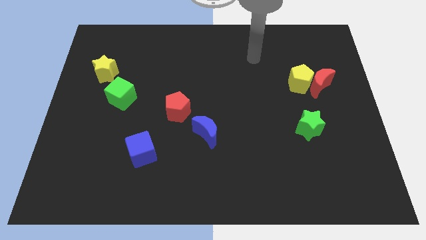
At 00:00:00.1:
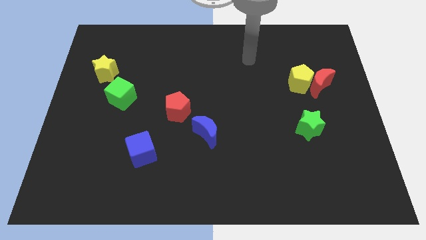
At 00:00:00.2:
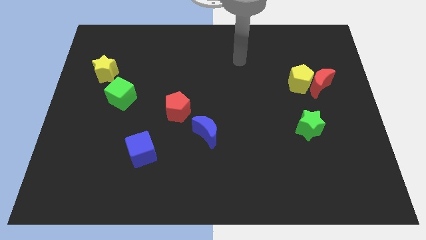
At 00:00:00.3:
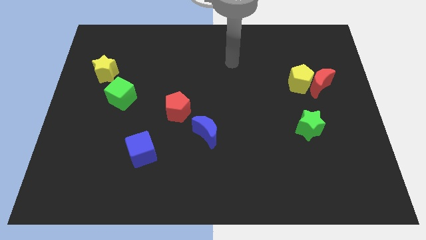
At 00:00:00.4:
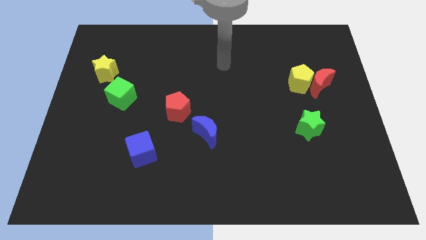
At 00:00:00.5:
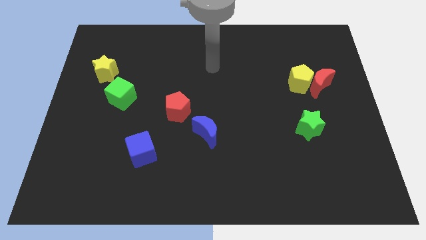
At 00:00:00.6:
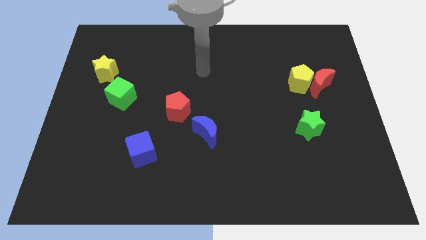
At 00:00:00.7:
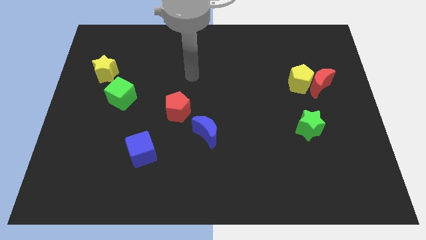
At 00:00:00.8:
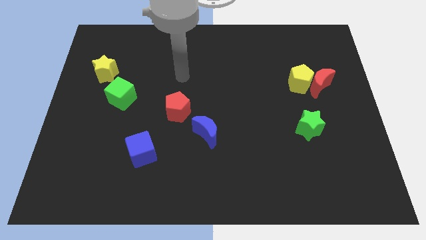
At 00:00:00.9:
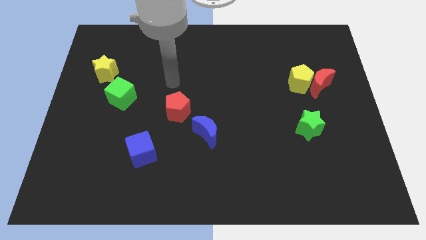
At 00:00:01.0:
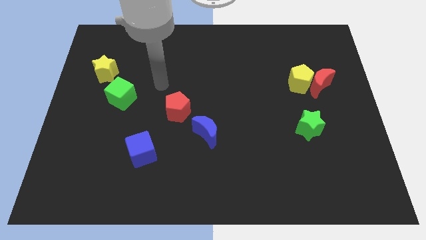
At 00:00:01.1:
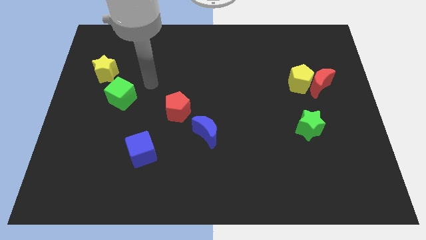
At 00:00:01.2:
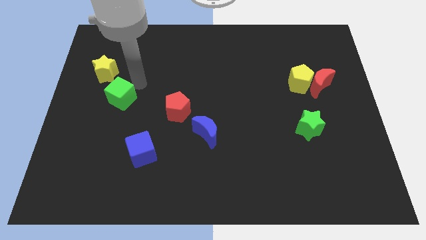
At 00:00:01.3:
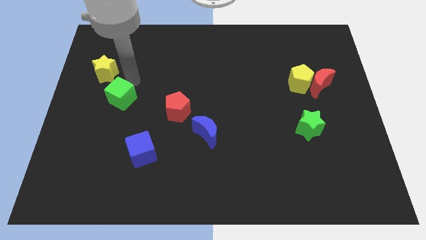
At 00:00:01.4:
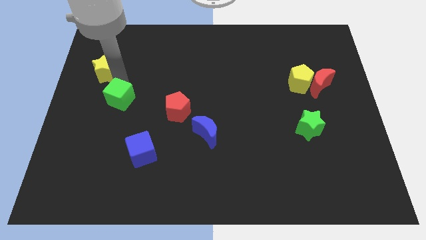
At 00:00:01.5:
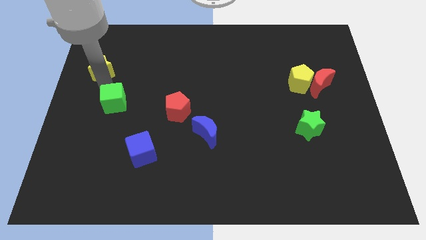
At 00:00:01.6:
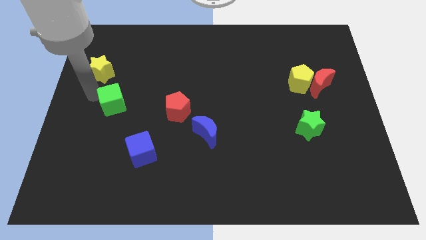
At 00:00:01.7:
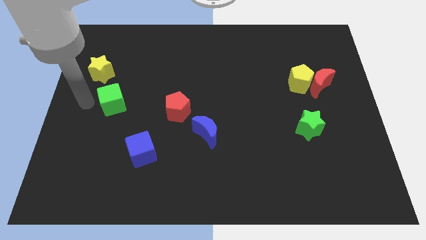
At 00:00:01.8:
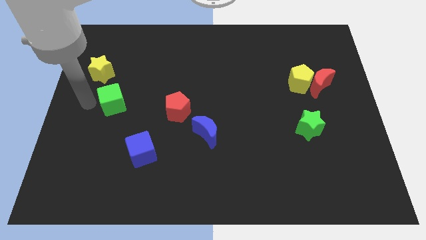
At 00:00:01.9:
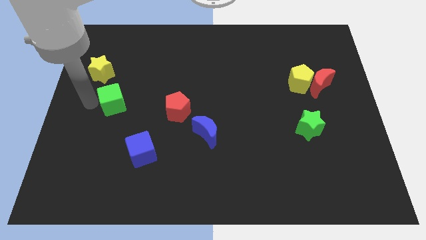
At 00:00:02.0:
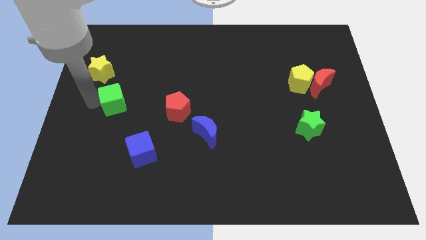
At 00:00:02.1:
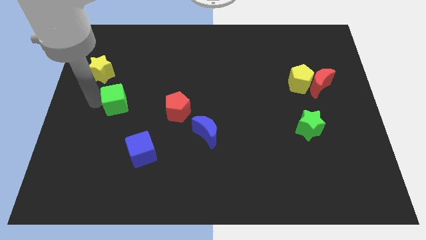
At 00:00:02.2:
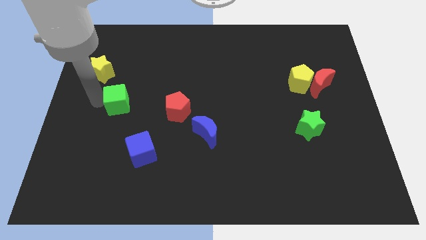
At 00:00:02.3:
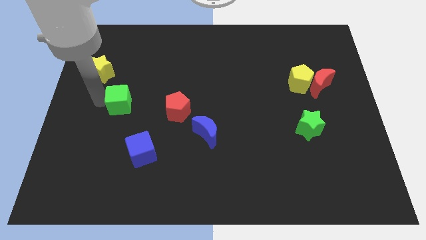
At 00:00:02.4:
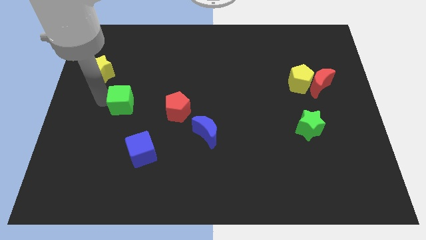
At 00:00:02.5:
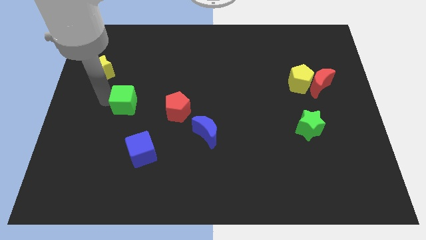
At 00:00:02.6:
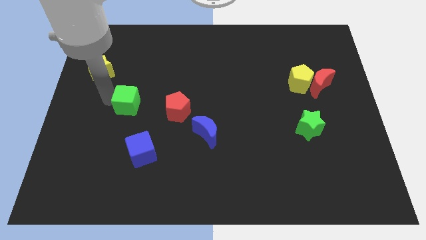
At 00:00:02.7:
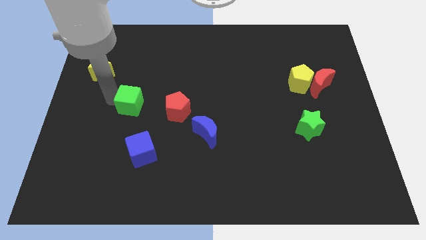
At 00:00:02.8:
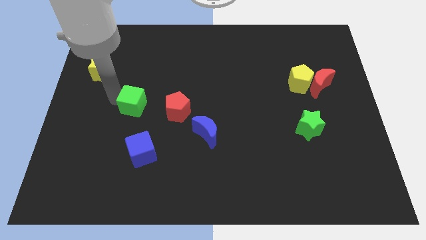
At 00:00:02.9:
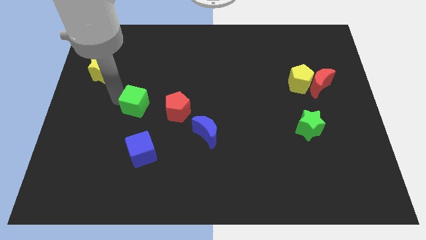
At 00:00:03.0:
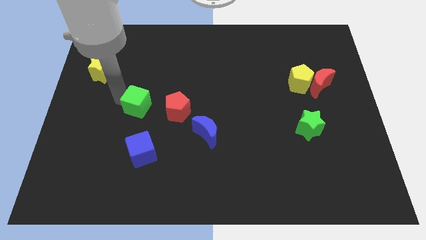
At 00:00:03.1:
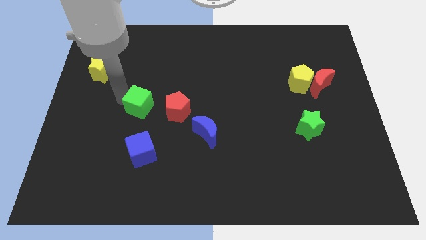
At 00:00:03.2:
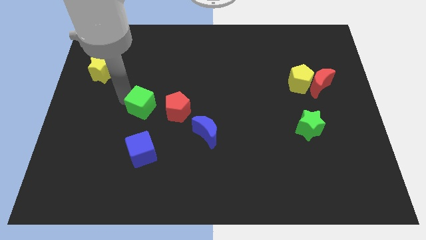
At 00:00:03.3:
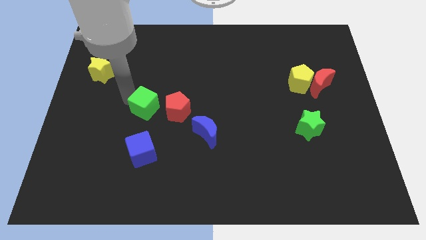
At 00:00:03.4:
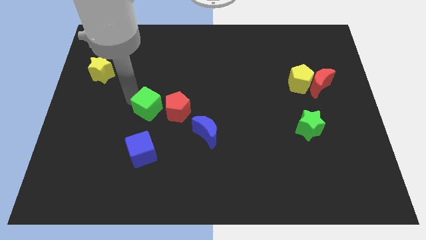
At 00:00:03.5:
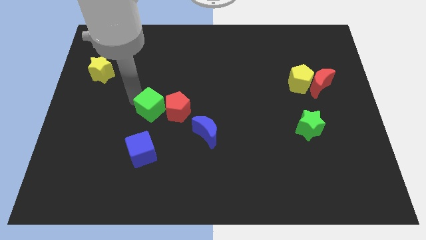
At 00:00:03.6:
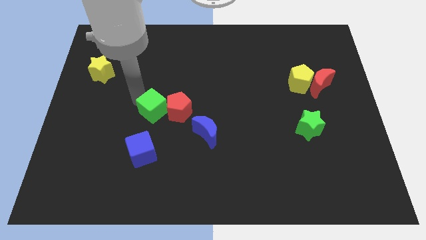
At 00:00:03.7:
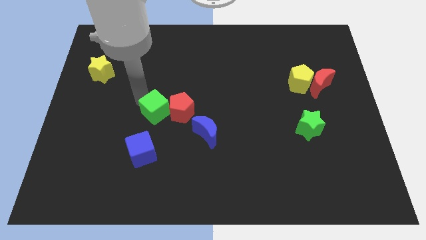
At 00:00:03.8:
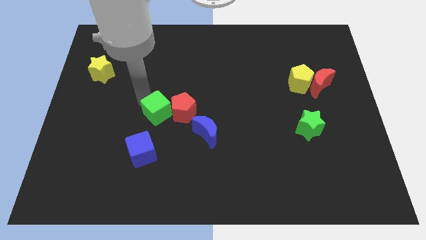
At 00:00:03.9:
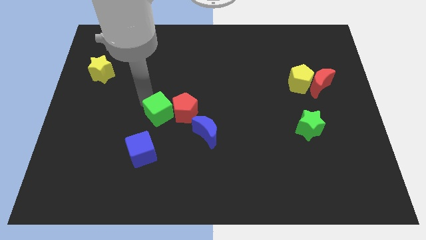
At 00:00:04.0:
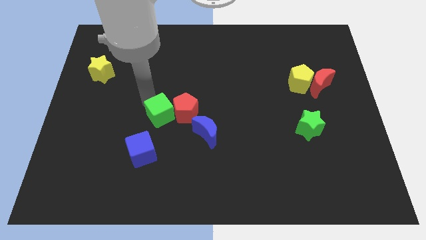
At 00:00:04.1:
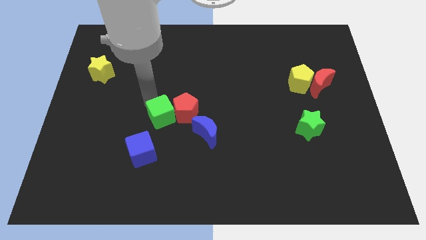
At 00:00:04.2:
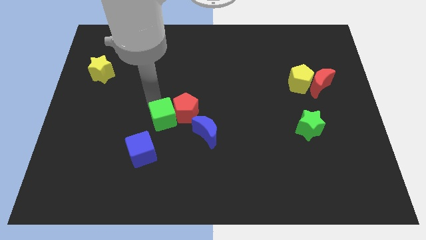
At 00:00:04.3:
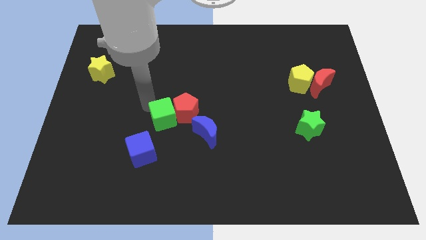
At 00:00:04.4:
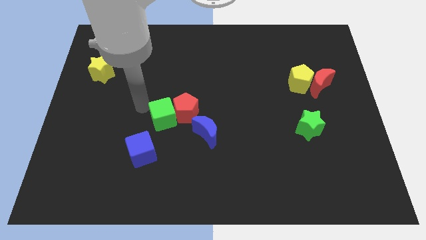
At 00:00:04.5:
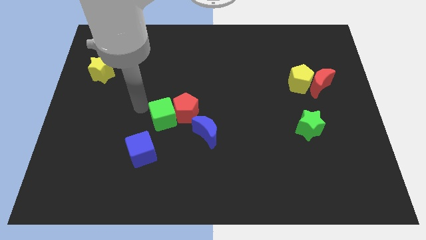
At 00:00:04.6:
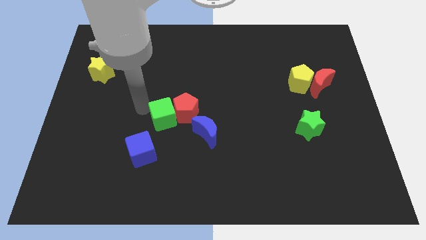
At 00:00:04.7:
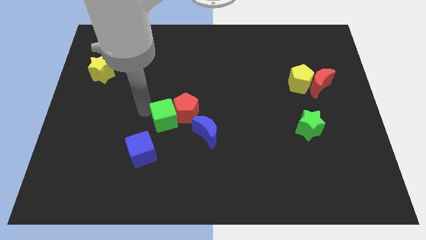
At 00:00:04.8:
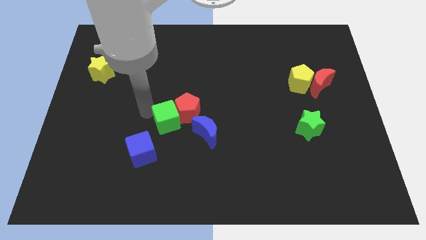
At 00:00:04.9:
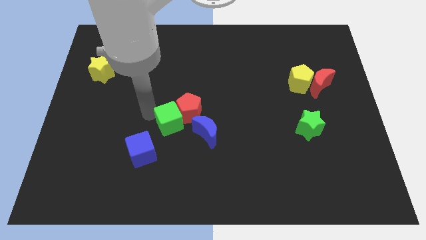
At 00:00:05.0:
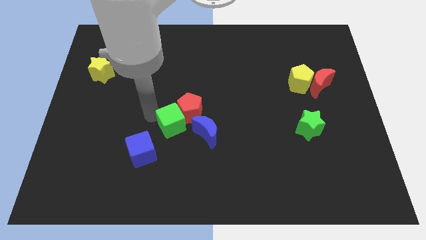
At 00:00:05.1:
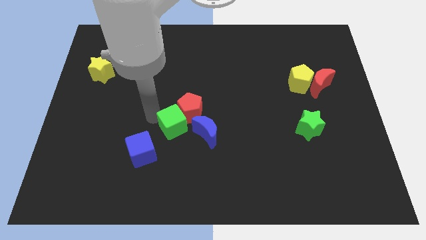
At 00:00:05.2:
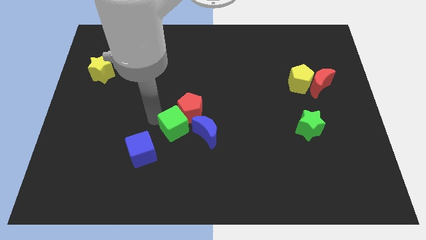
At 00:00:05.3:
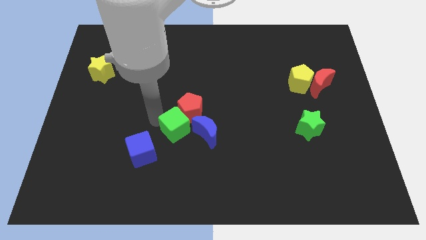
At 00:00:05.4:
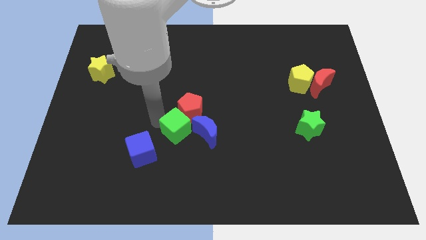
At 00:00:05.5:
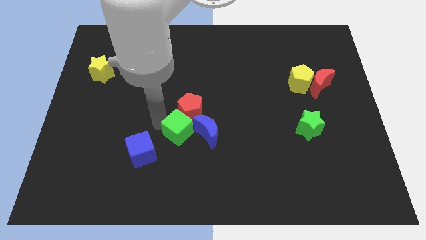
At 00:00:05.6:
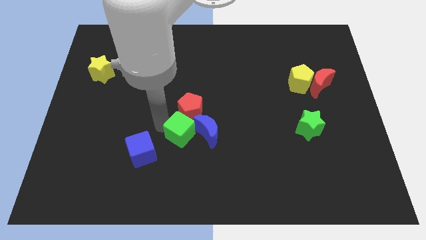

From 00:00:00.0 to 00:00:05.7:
push the green cube towards the blue moon

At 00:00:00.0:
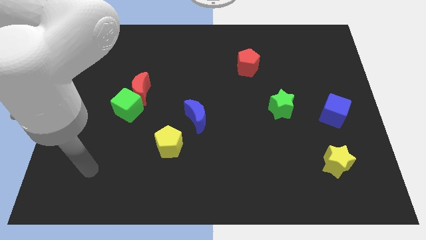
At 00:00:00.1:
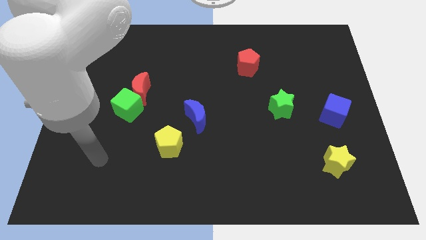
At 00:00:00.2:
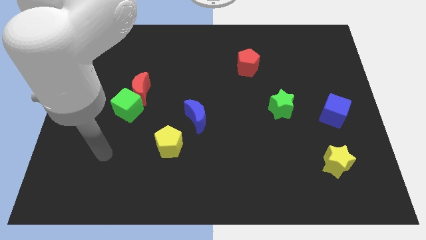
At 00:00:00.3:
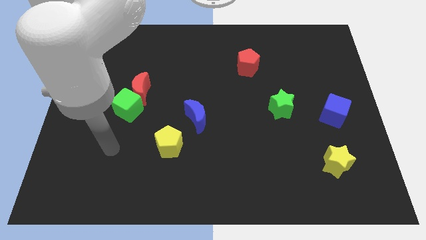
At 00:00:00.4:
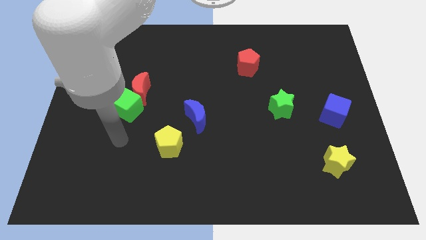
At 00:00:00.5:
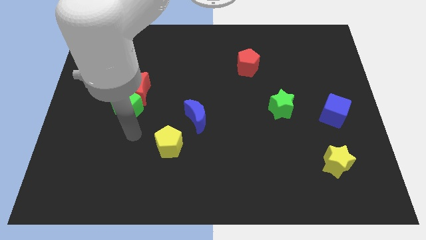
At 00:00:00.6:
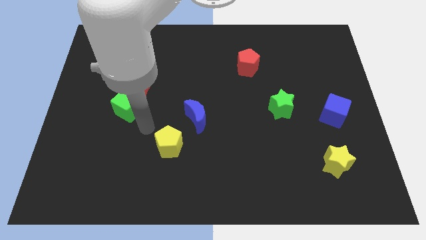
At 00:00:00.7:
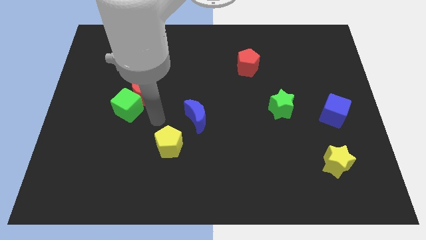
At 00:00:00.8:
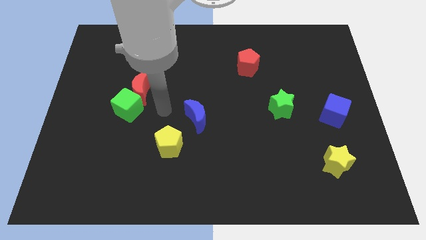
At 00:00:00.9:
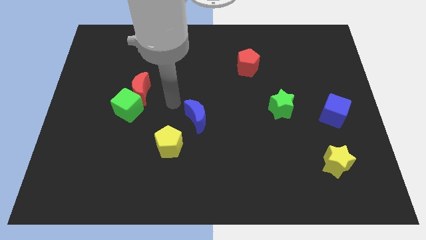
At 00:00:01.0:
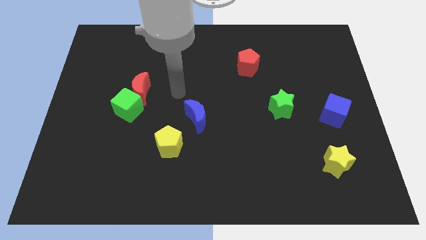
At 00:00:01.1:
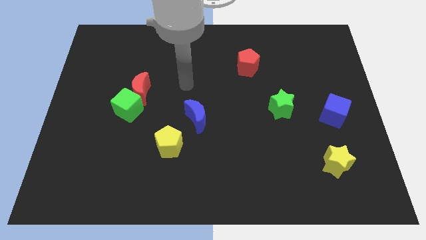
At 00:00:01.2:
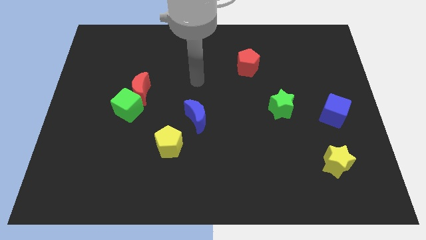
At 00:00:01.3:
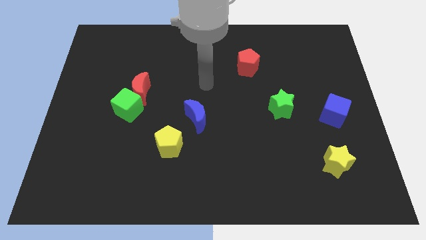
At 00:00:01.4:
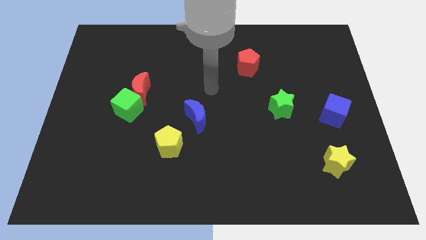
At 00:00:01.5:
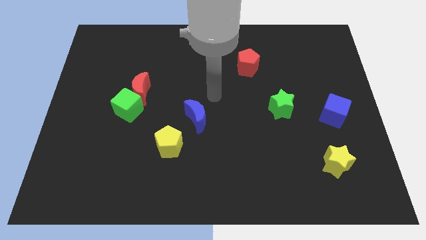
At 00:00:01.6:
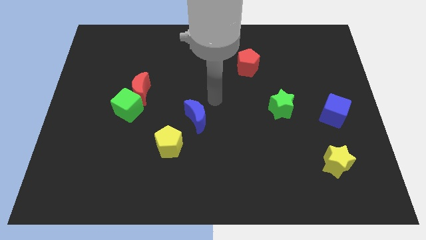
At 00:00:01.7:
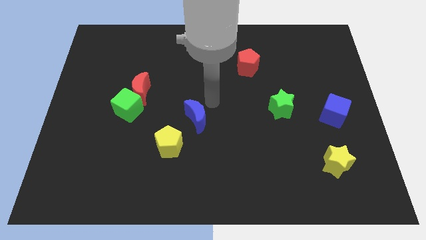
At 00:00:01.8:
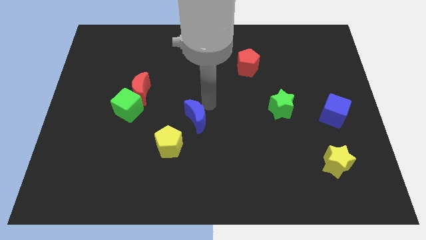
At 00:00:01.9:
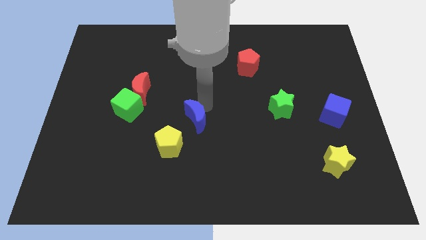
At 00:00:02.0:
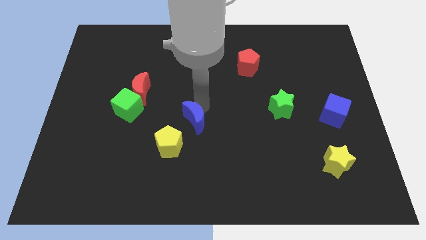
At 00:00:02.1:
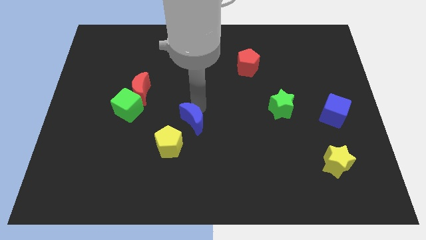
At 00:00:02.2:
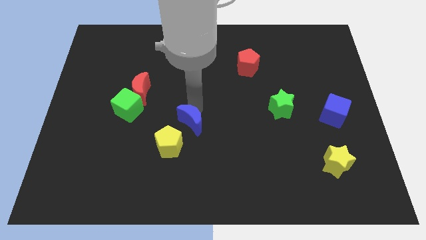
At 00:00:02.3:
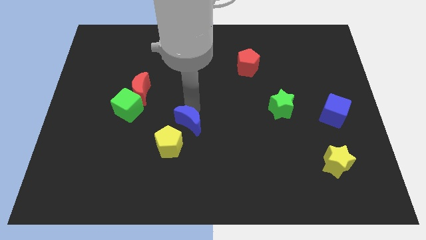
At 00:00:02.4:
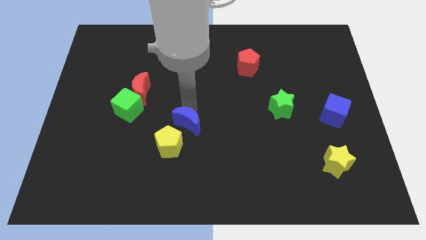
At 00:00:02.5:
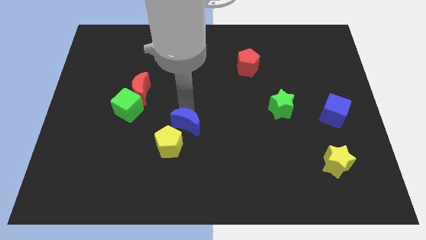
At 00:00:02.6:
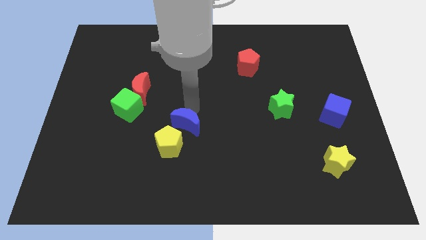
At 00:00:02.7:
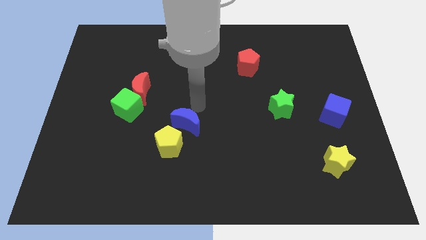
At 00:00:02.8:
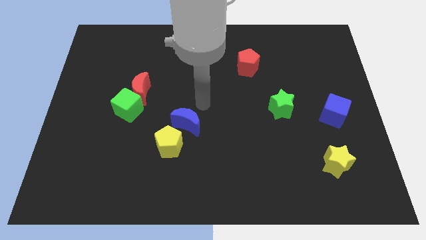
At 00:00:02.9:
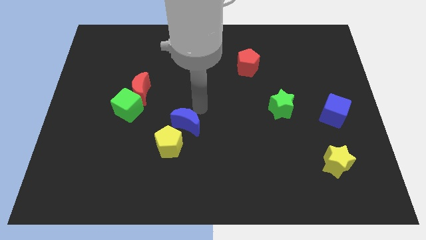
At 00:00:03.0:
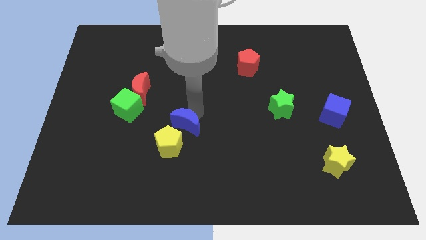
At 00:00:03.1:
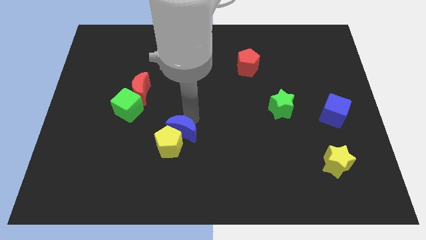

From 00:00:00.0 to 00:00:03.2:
push the blue moon close to the yellow pentagon
